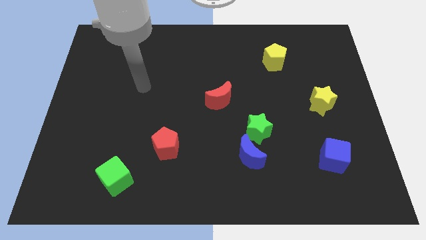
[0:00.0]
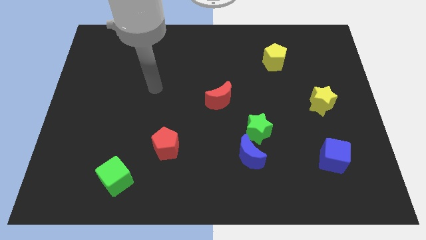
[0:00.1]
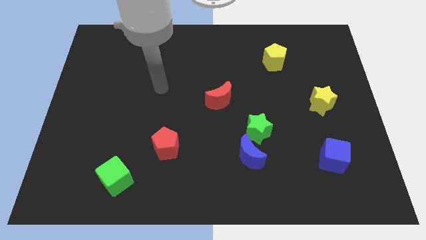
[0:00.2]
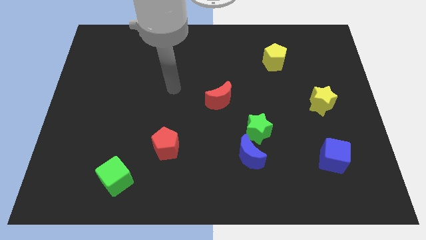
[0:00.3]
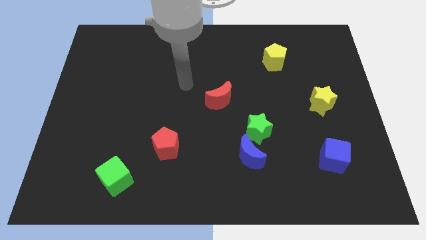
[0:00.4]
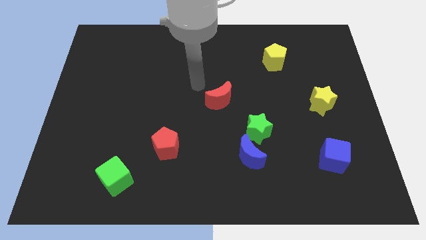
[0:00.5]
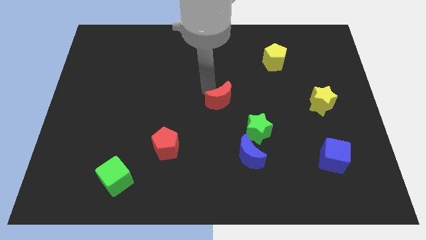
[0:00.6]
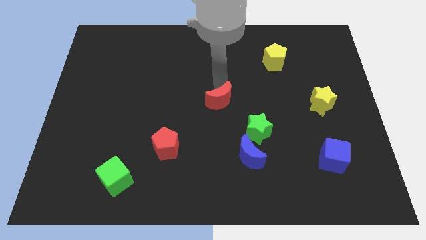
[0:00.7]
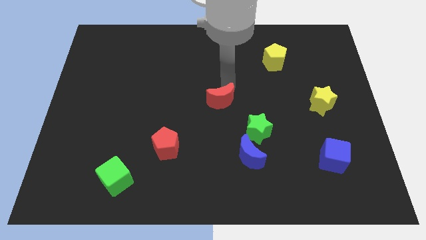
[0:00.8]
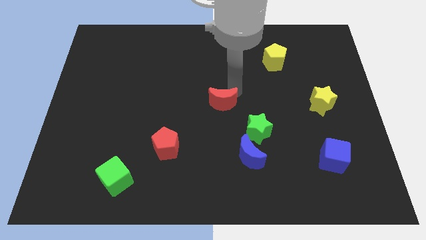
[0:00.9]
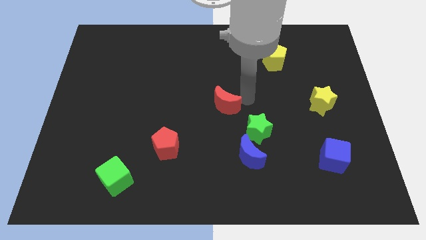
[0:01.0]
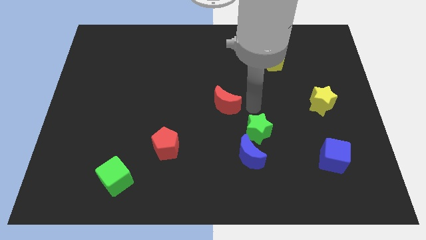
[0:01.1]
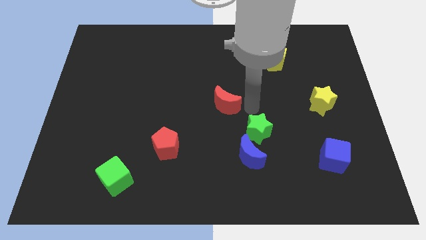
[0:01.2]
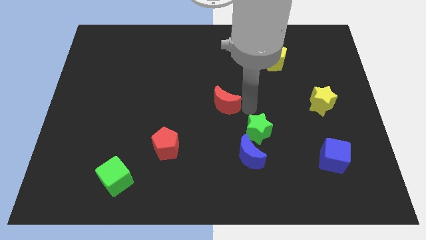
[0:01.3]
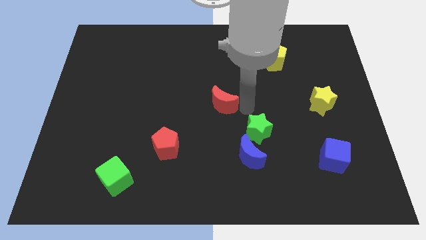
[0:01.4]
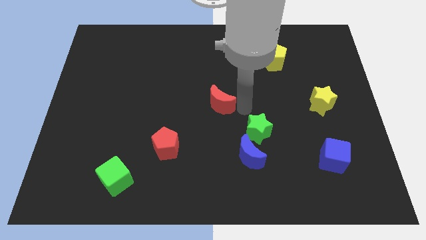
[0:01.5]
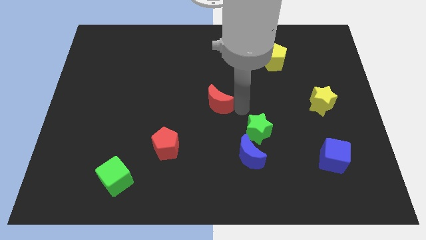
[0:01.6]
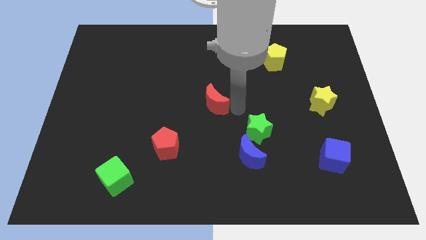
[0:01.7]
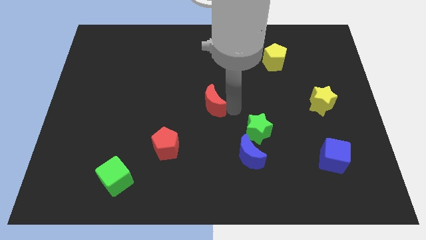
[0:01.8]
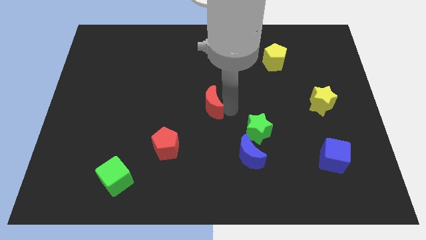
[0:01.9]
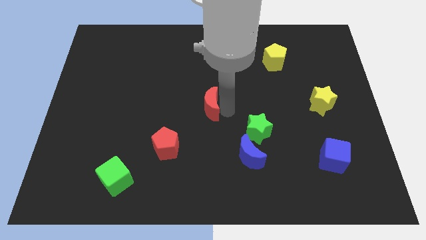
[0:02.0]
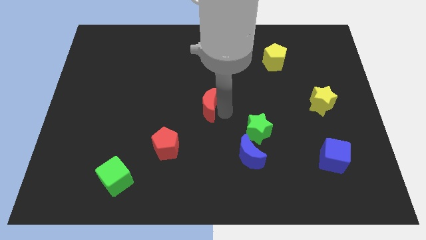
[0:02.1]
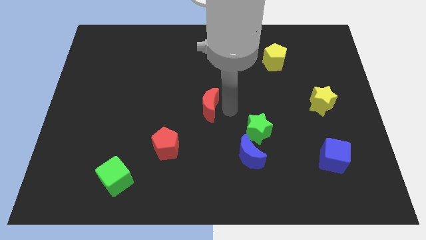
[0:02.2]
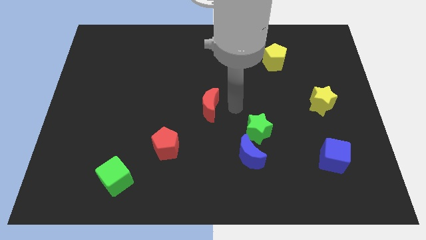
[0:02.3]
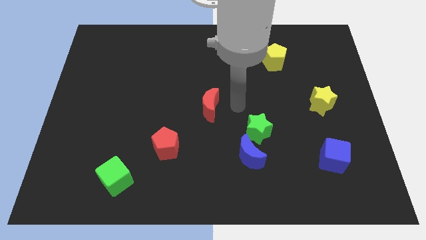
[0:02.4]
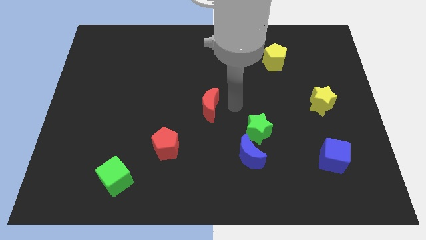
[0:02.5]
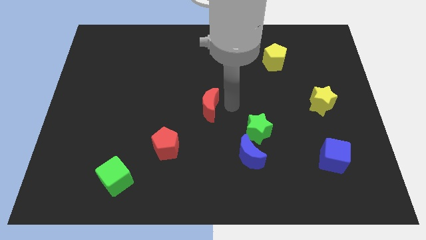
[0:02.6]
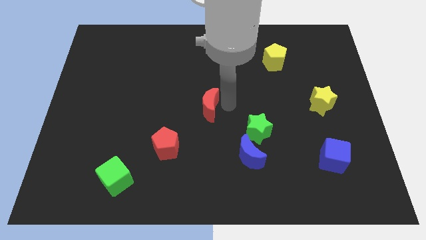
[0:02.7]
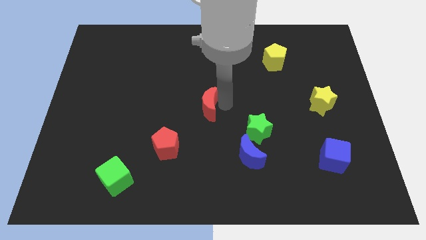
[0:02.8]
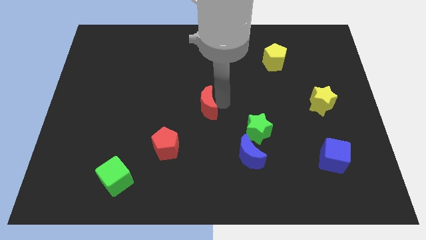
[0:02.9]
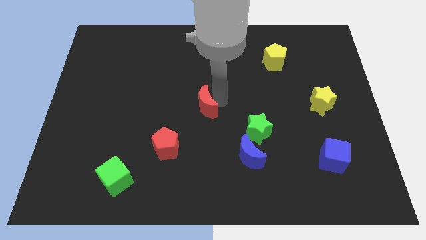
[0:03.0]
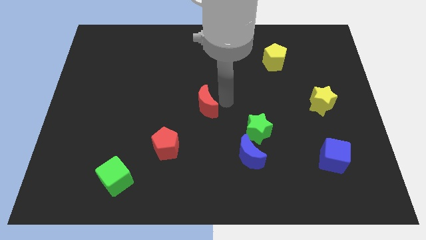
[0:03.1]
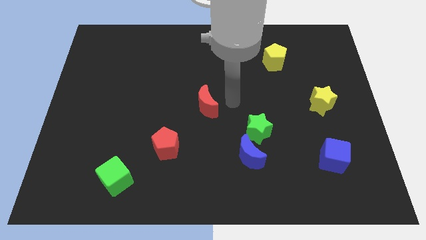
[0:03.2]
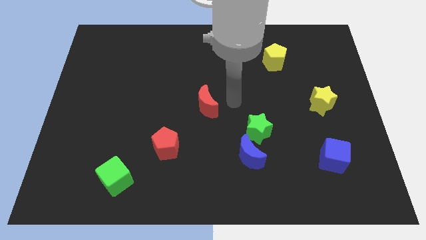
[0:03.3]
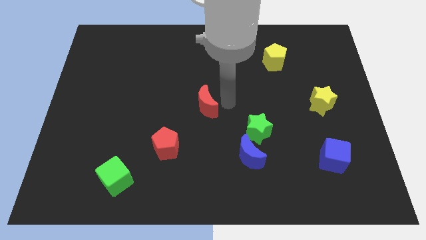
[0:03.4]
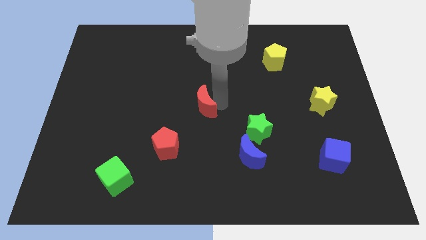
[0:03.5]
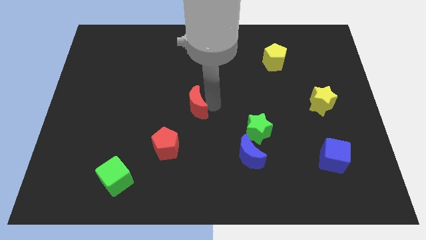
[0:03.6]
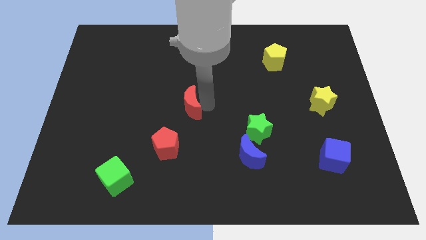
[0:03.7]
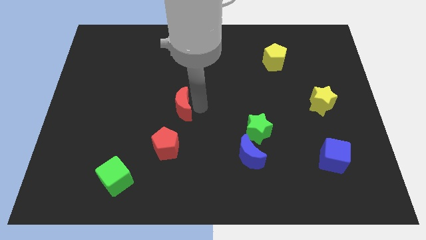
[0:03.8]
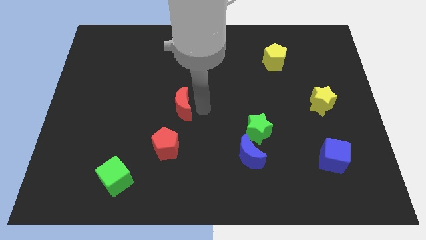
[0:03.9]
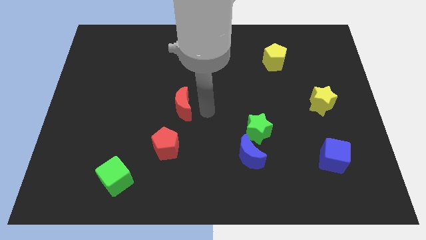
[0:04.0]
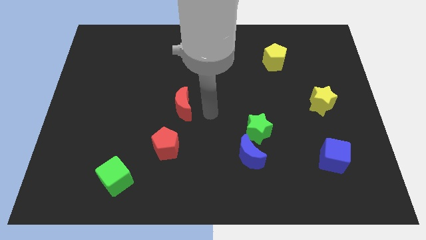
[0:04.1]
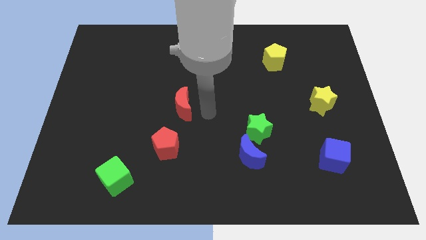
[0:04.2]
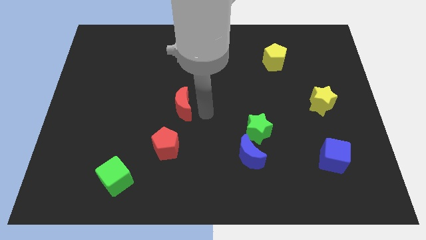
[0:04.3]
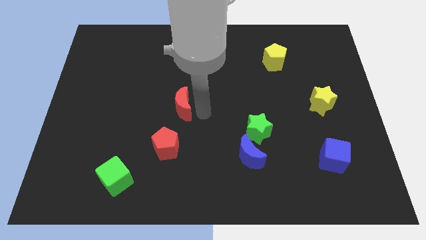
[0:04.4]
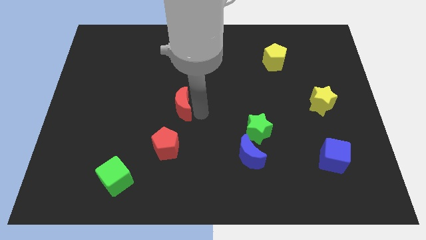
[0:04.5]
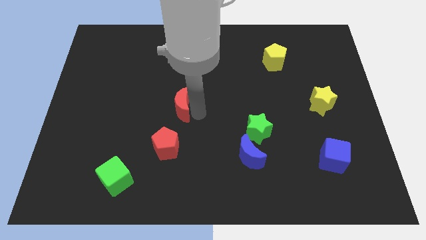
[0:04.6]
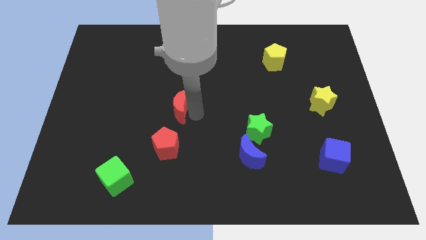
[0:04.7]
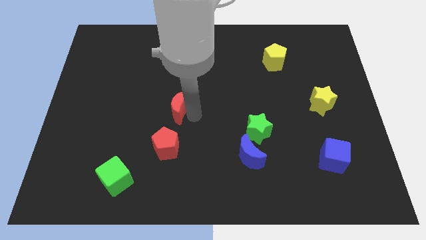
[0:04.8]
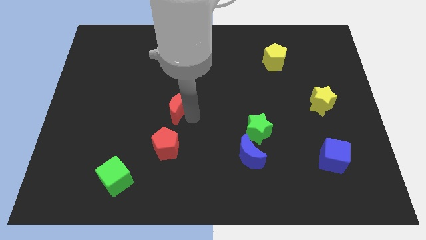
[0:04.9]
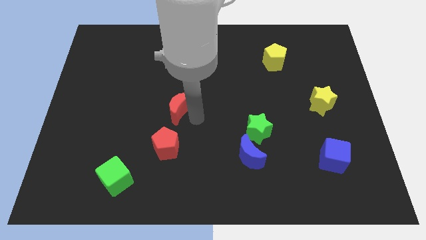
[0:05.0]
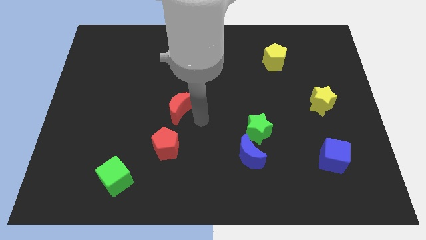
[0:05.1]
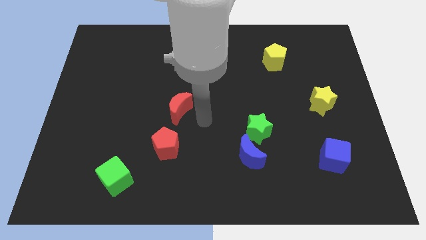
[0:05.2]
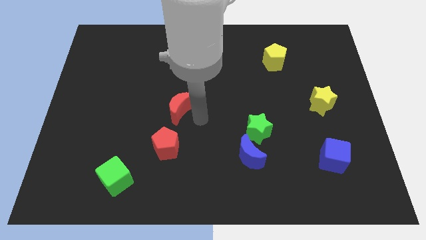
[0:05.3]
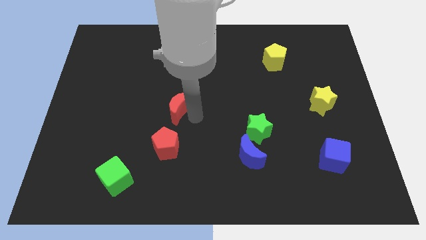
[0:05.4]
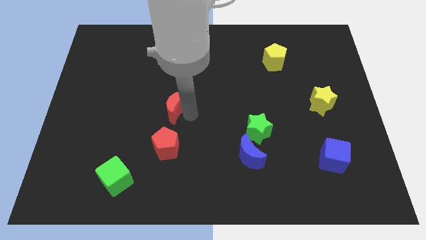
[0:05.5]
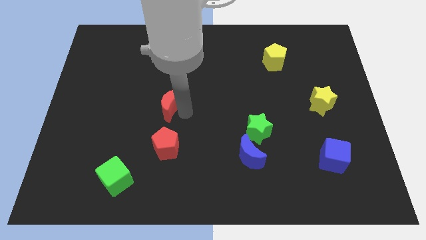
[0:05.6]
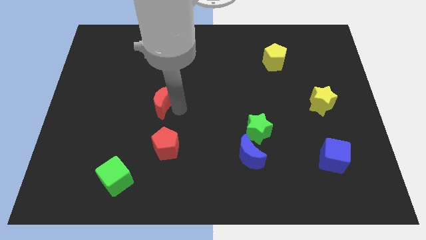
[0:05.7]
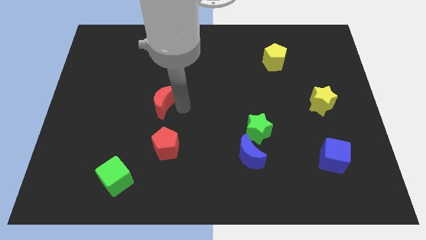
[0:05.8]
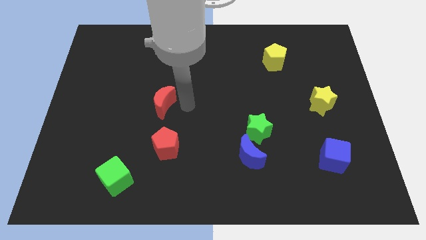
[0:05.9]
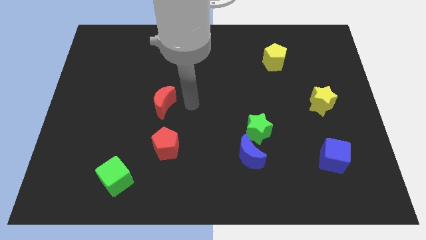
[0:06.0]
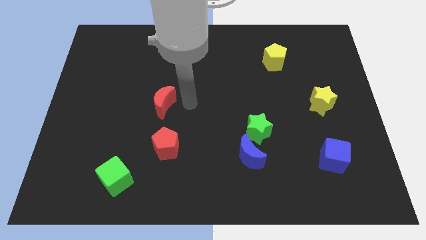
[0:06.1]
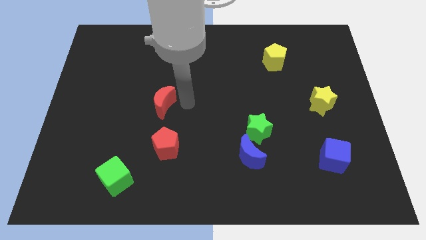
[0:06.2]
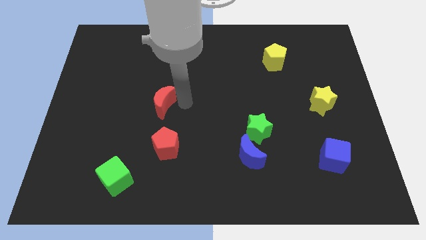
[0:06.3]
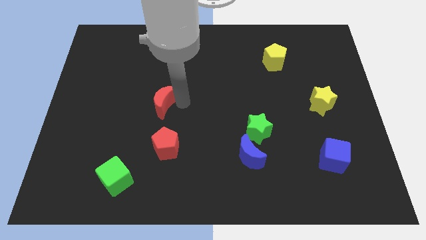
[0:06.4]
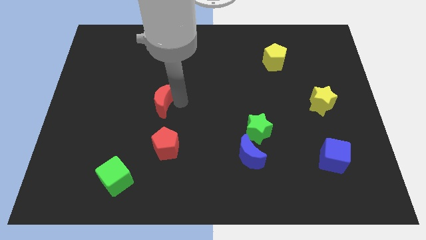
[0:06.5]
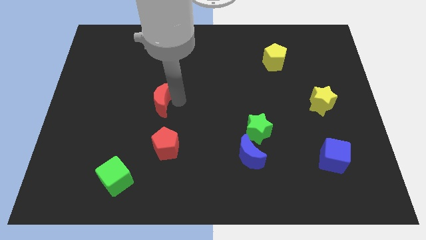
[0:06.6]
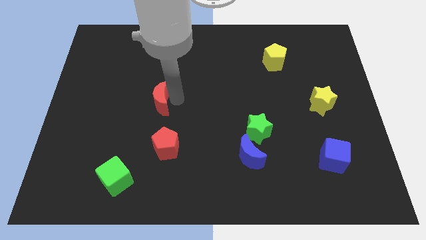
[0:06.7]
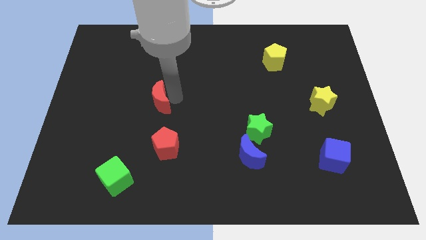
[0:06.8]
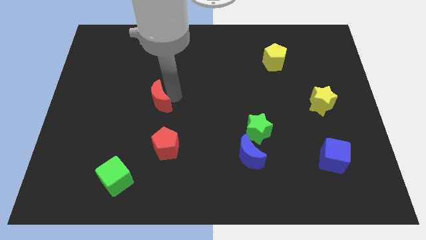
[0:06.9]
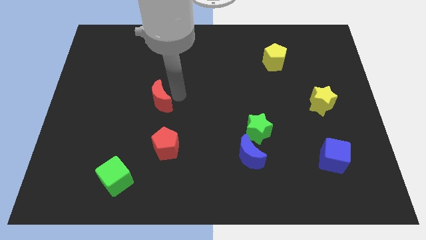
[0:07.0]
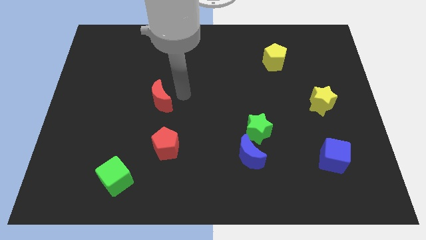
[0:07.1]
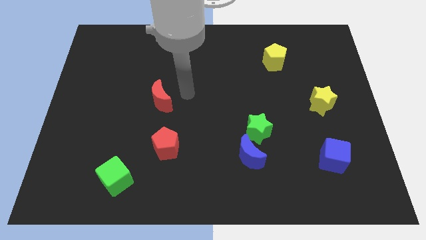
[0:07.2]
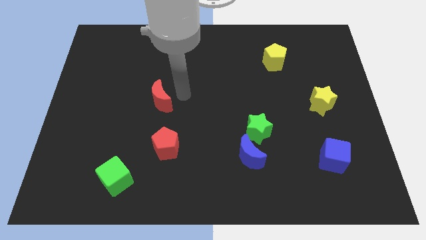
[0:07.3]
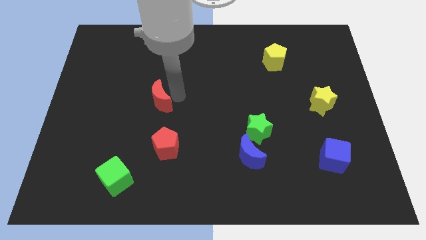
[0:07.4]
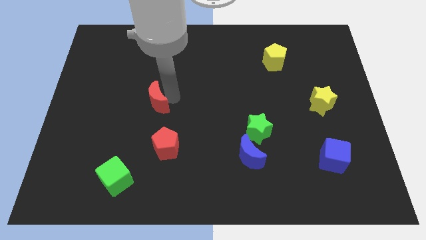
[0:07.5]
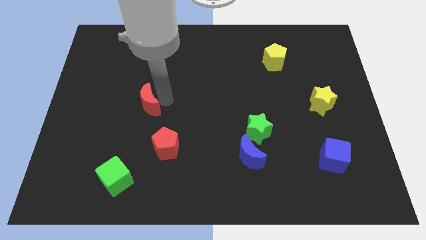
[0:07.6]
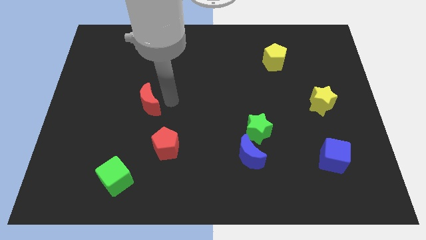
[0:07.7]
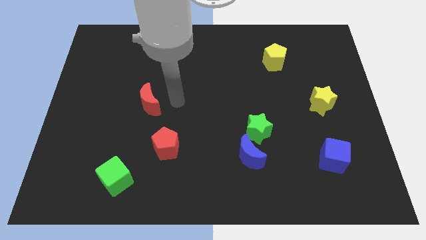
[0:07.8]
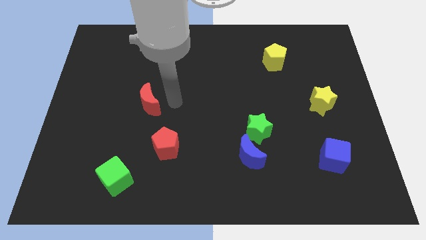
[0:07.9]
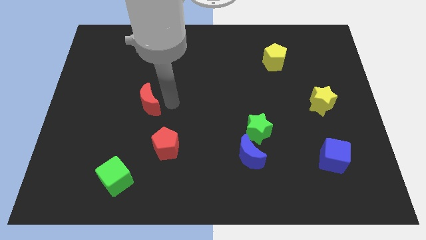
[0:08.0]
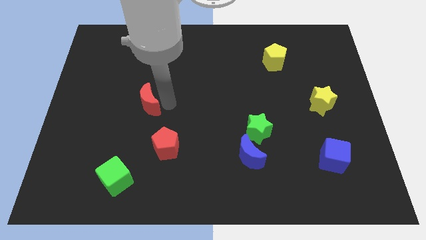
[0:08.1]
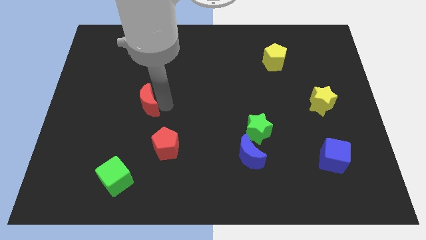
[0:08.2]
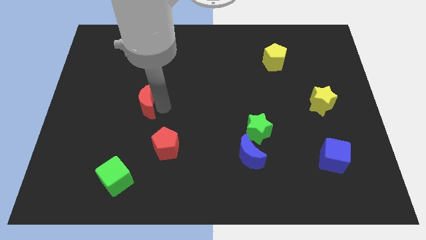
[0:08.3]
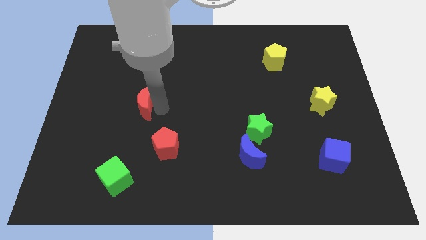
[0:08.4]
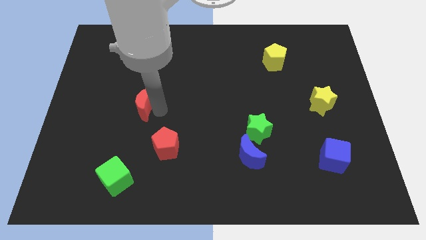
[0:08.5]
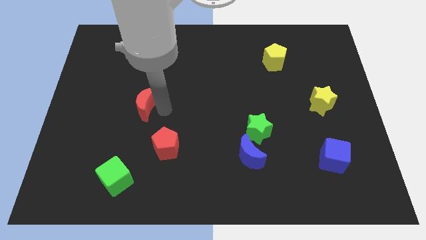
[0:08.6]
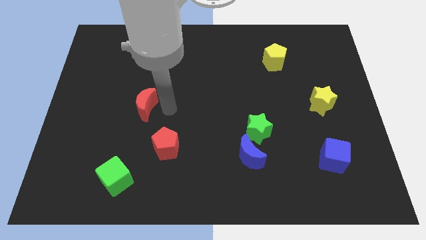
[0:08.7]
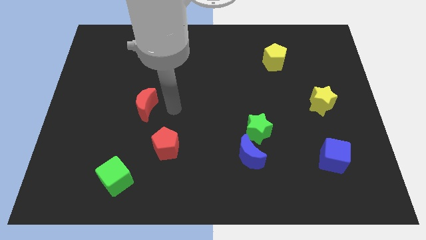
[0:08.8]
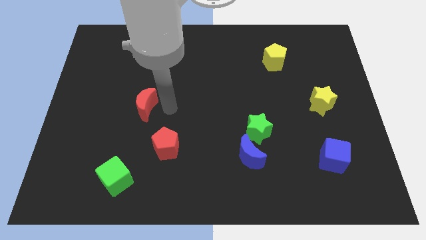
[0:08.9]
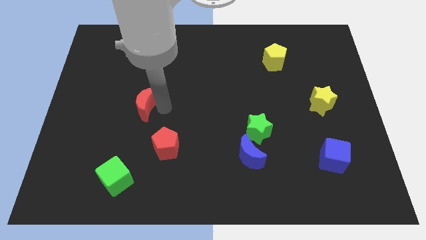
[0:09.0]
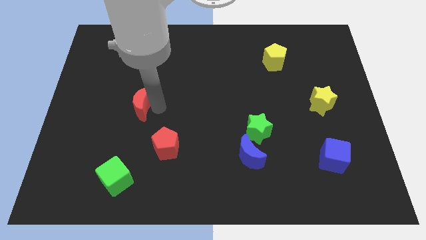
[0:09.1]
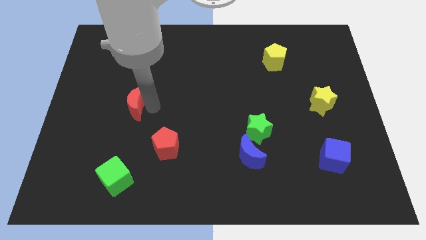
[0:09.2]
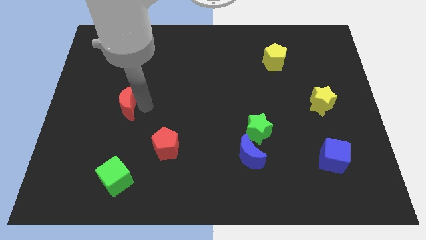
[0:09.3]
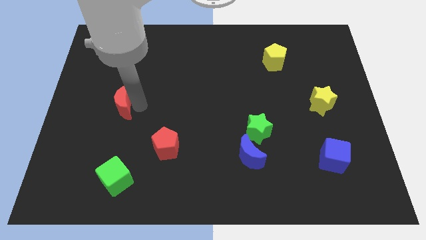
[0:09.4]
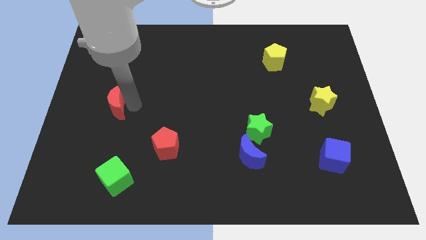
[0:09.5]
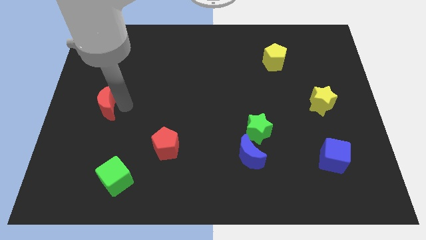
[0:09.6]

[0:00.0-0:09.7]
move the red moon to the left side
